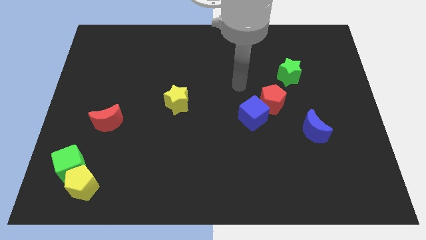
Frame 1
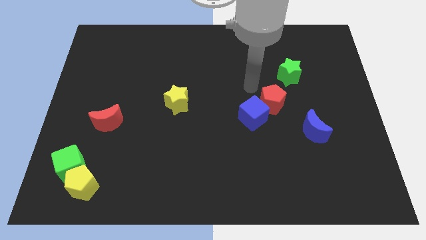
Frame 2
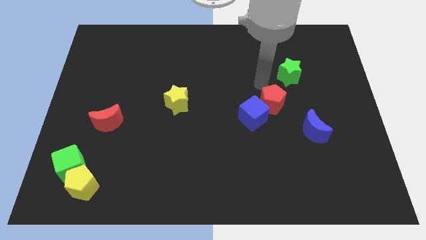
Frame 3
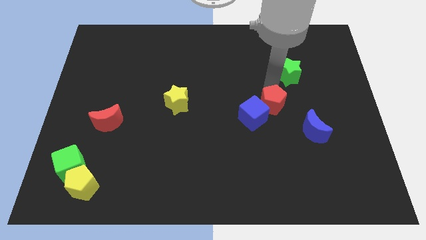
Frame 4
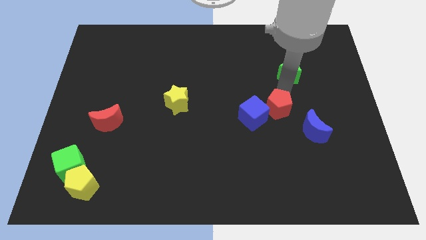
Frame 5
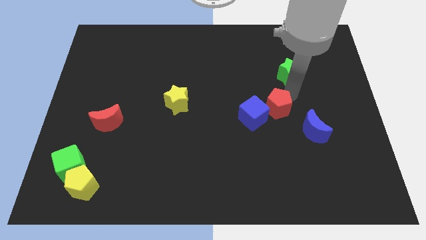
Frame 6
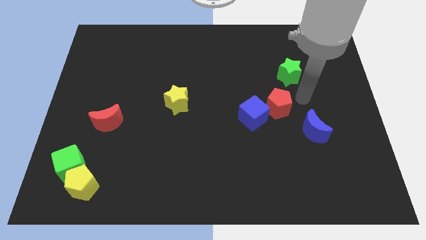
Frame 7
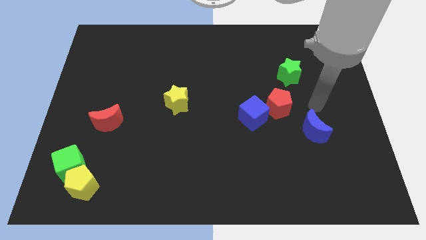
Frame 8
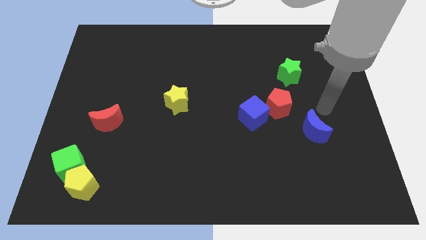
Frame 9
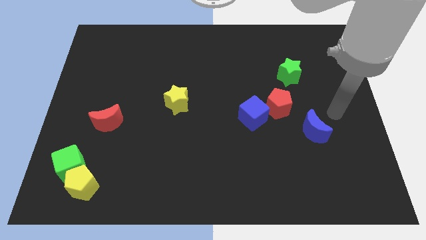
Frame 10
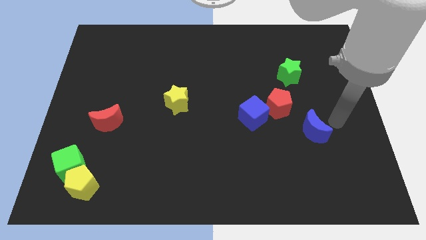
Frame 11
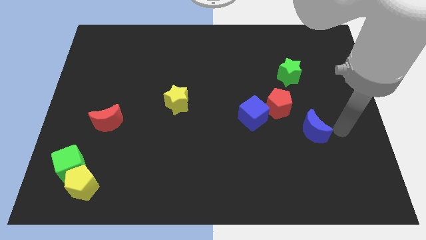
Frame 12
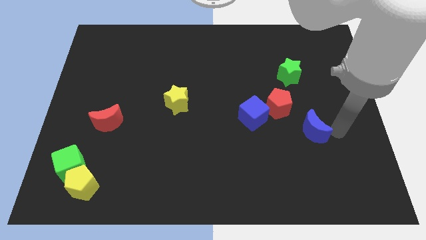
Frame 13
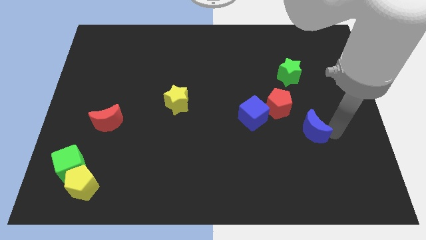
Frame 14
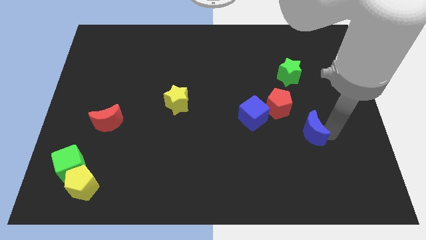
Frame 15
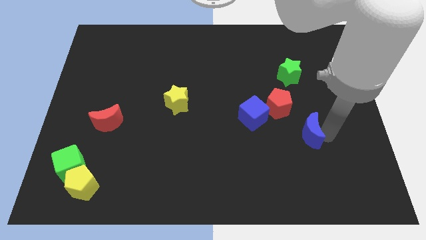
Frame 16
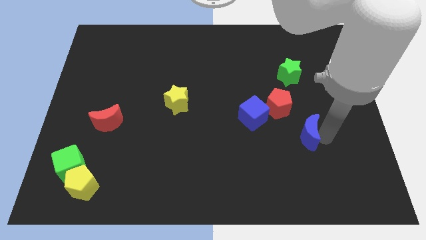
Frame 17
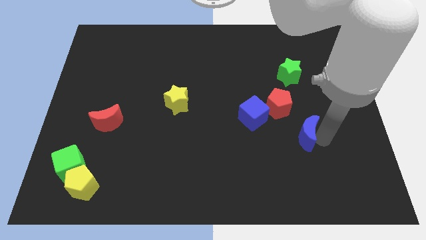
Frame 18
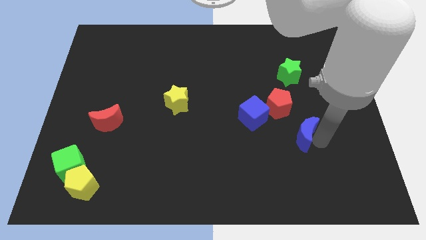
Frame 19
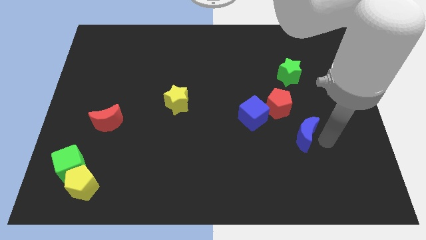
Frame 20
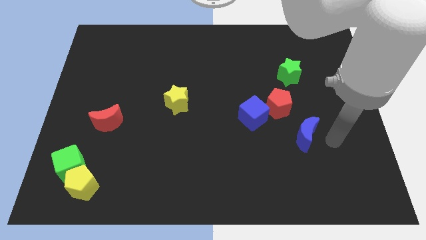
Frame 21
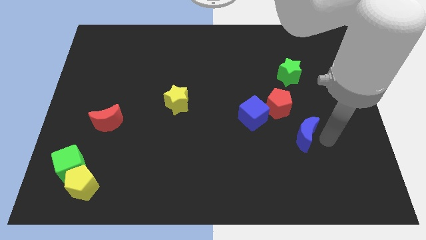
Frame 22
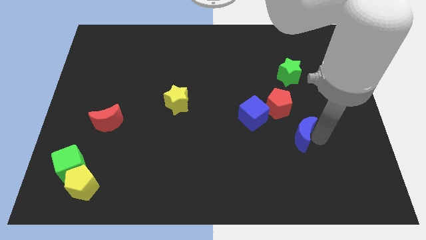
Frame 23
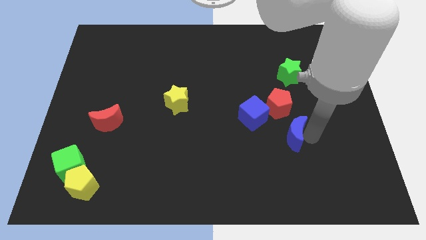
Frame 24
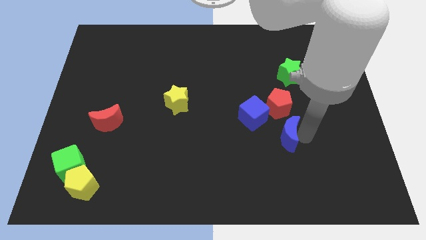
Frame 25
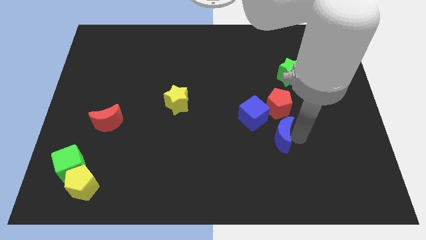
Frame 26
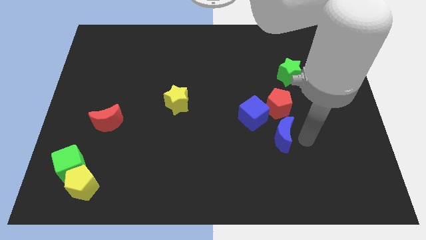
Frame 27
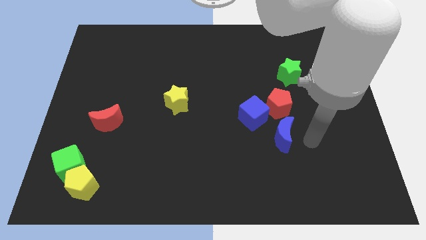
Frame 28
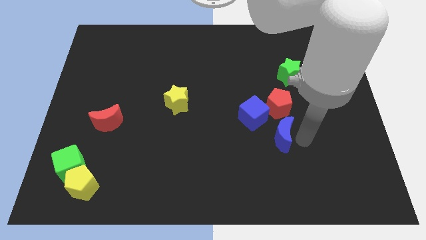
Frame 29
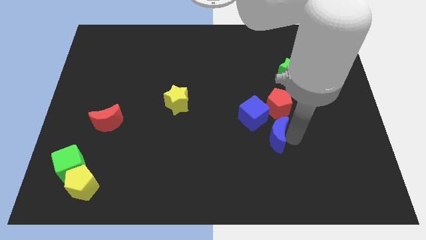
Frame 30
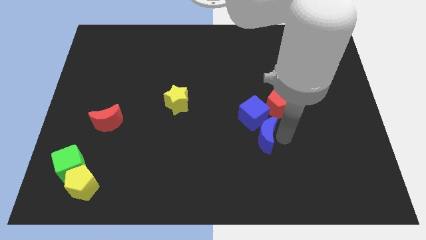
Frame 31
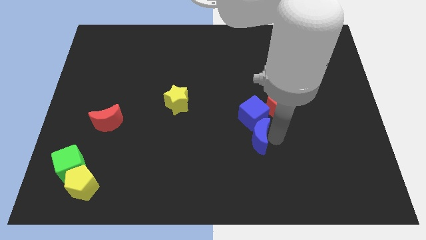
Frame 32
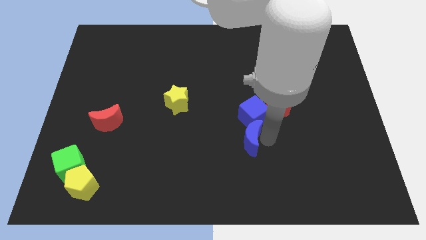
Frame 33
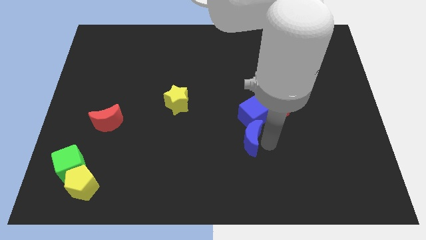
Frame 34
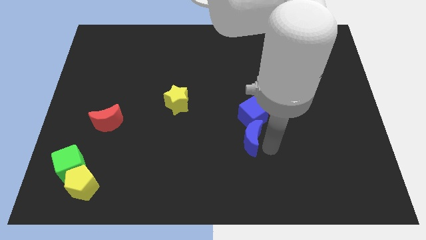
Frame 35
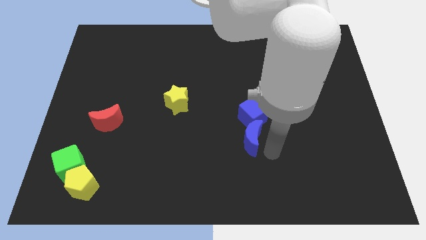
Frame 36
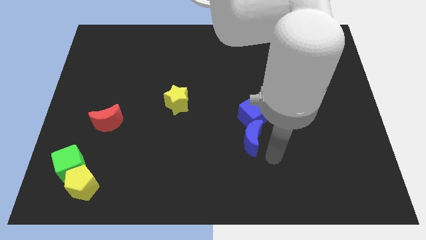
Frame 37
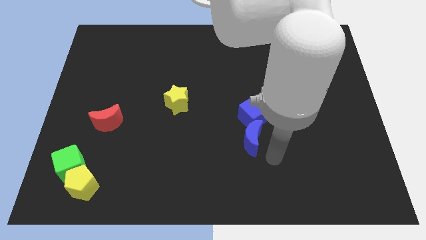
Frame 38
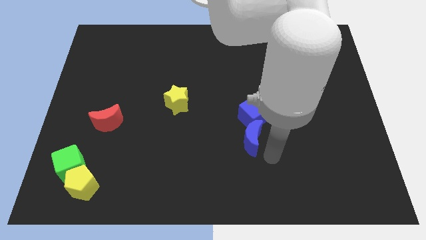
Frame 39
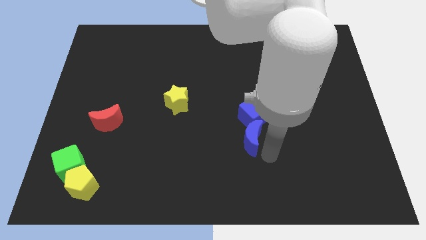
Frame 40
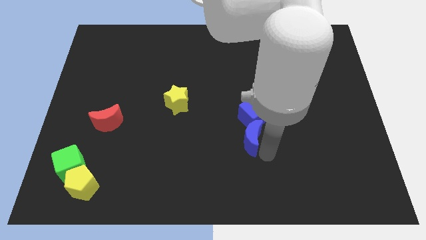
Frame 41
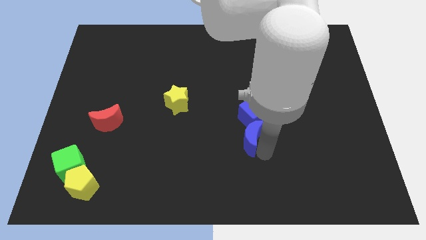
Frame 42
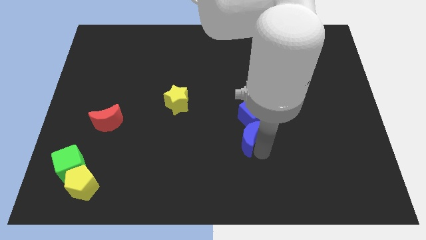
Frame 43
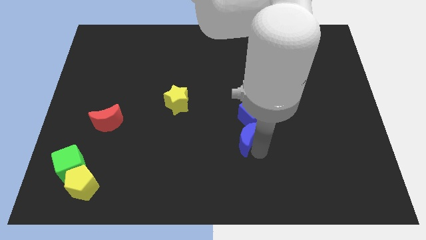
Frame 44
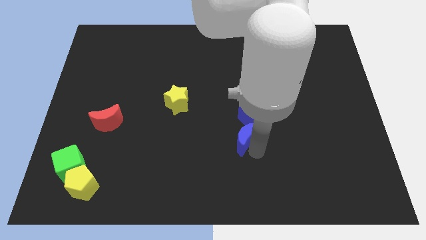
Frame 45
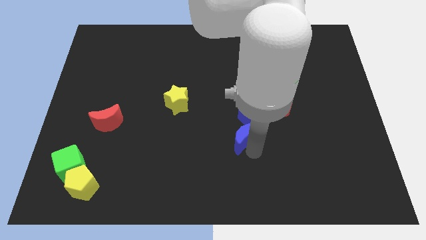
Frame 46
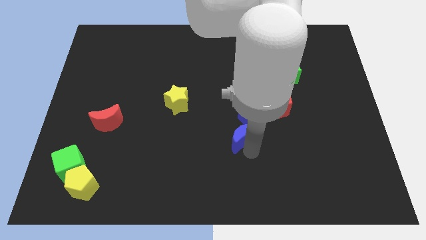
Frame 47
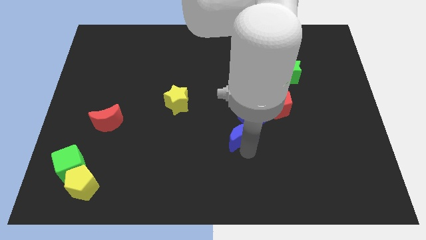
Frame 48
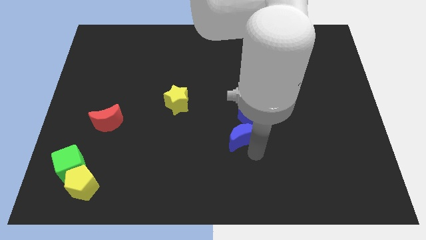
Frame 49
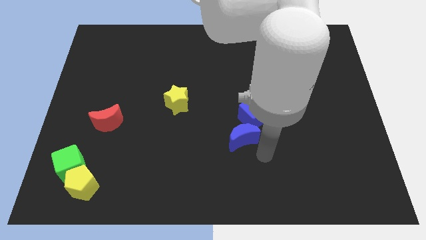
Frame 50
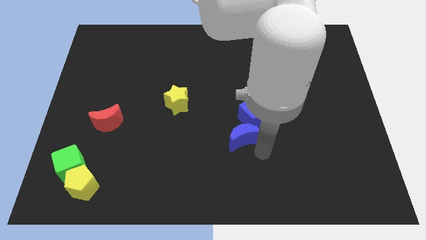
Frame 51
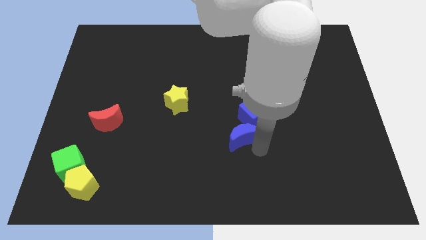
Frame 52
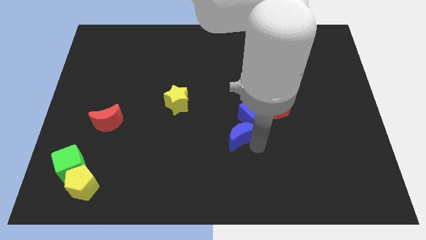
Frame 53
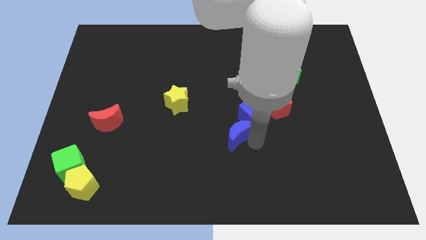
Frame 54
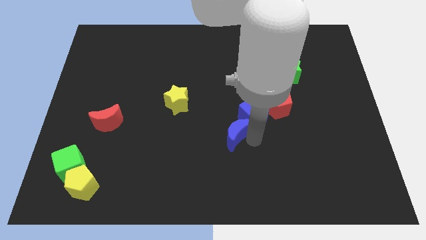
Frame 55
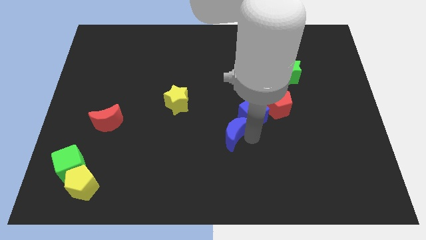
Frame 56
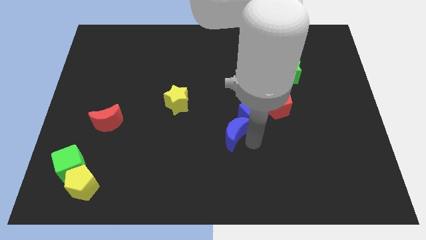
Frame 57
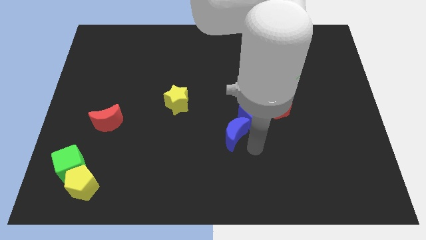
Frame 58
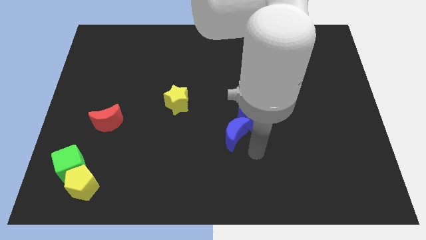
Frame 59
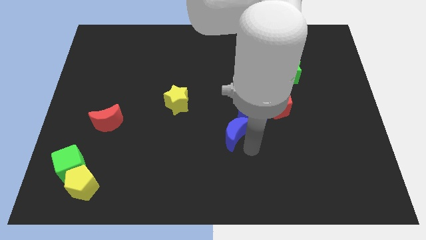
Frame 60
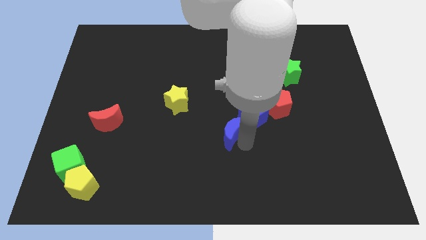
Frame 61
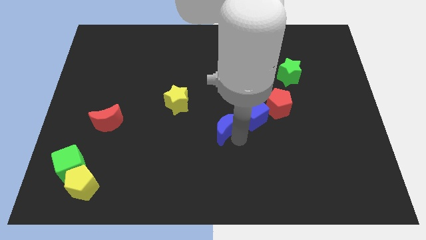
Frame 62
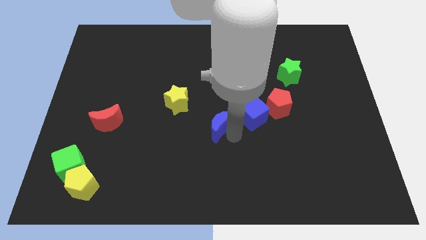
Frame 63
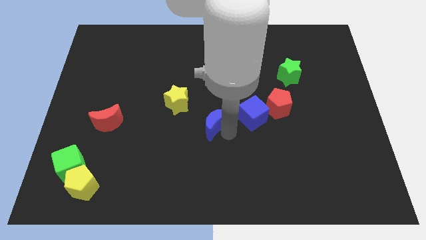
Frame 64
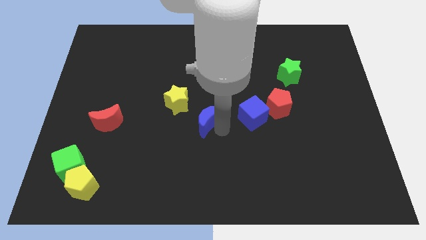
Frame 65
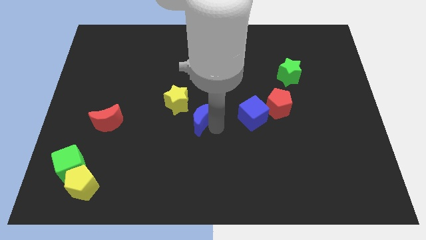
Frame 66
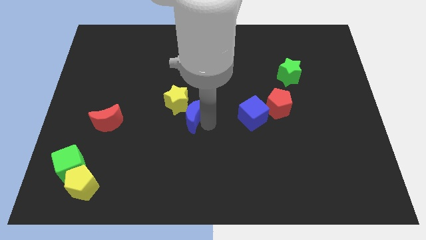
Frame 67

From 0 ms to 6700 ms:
push the blue moon next to the yellow star
